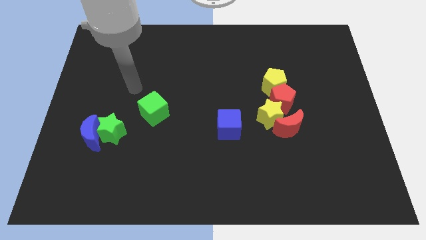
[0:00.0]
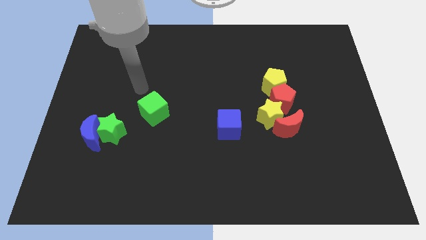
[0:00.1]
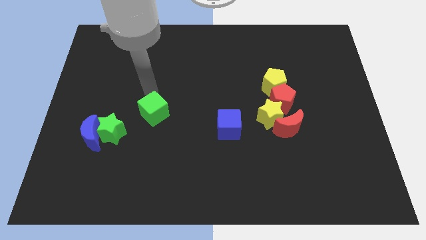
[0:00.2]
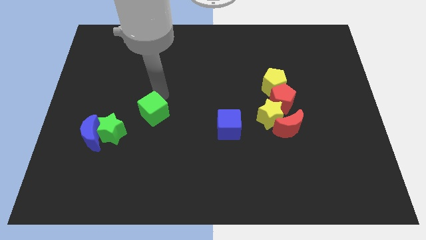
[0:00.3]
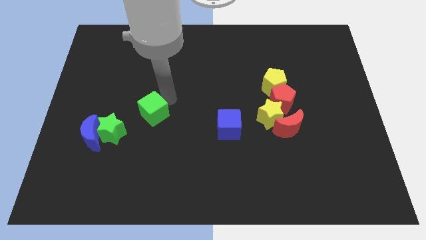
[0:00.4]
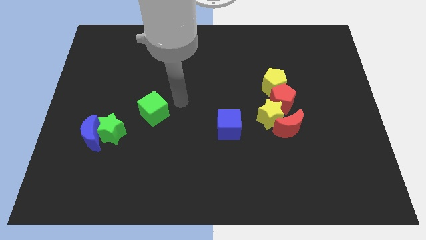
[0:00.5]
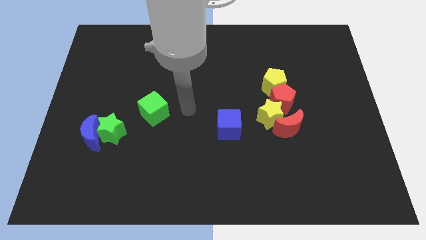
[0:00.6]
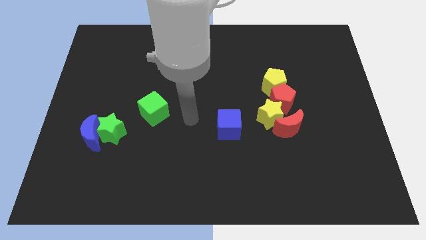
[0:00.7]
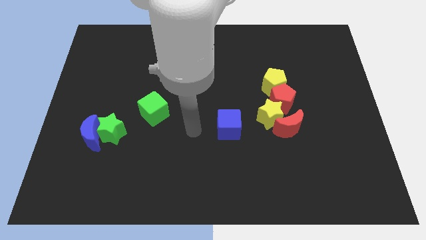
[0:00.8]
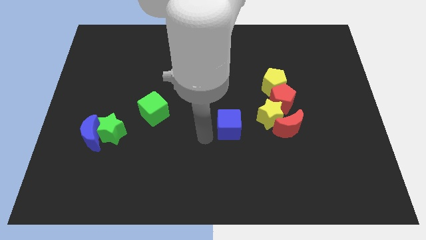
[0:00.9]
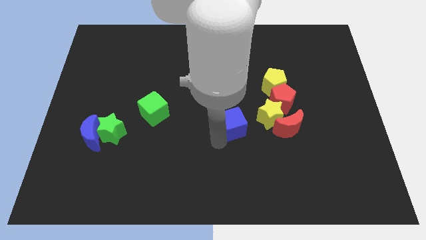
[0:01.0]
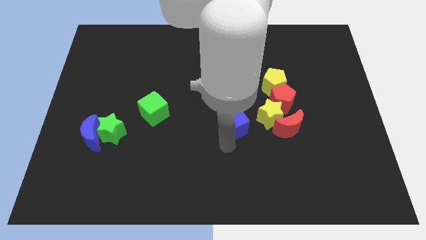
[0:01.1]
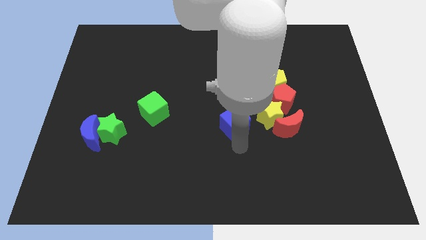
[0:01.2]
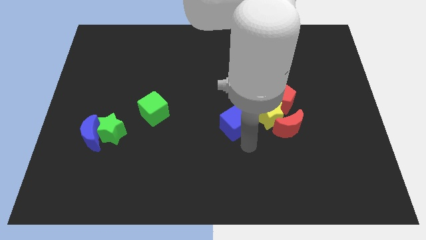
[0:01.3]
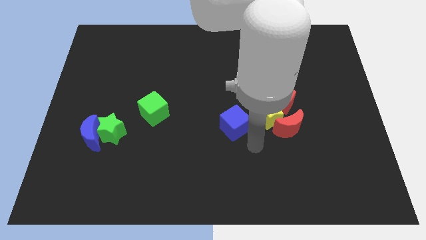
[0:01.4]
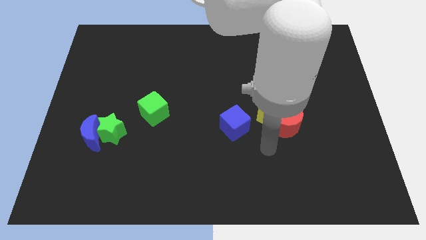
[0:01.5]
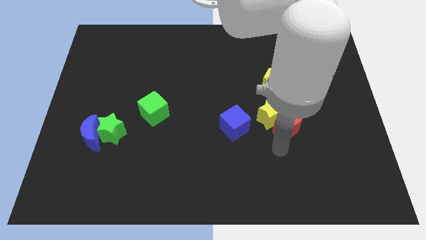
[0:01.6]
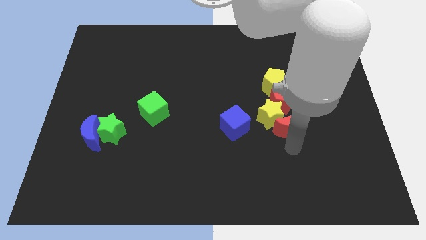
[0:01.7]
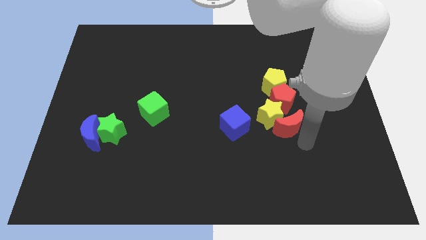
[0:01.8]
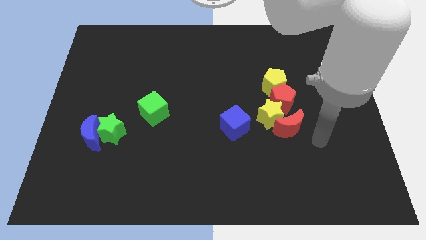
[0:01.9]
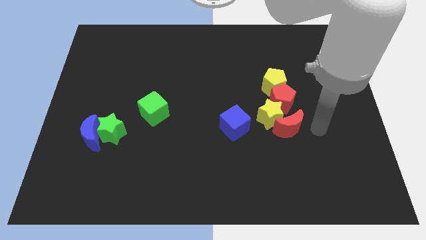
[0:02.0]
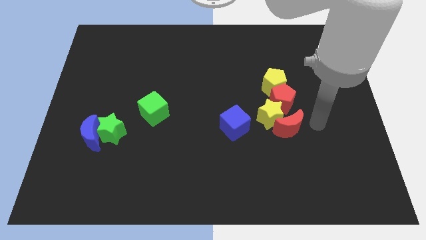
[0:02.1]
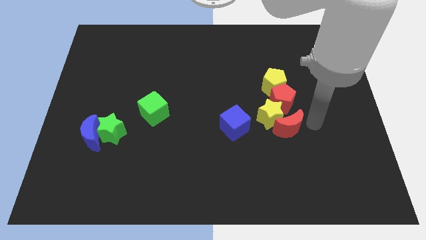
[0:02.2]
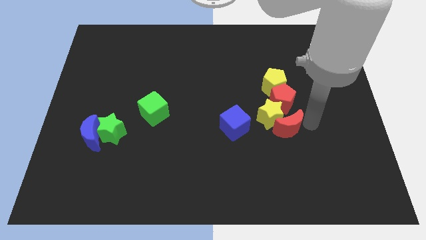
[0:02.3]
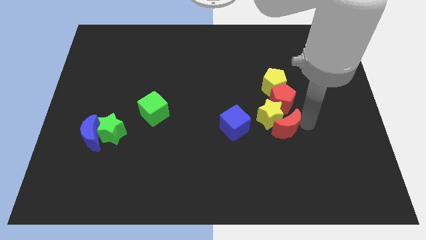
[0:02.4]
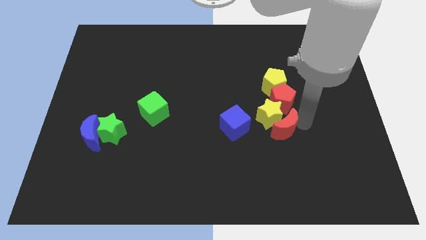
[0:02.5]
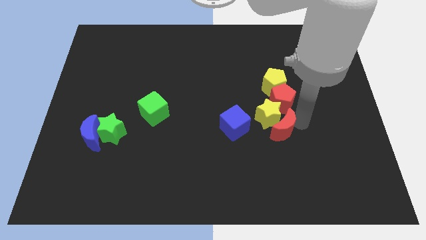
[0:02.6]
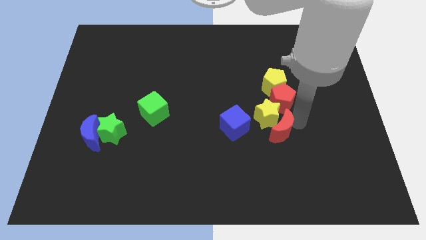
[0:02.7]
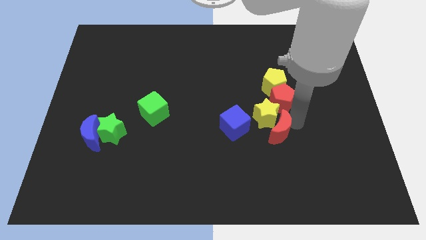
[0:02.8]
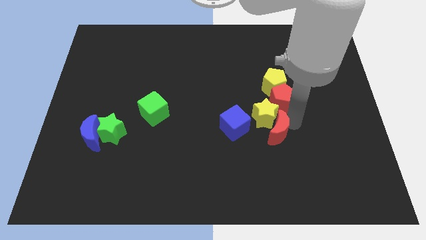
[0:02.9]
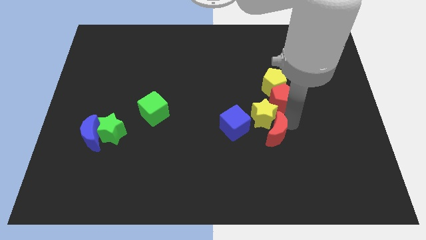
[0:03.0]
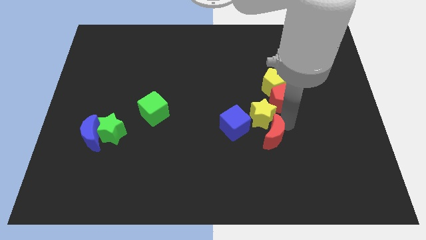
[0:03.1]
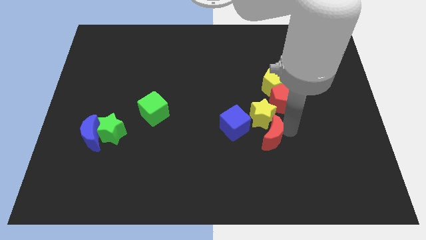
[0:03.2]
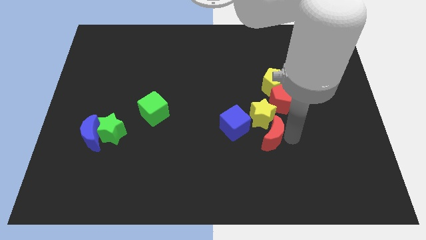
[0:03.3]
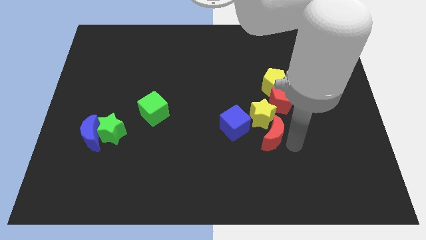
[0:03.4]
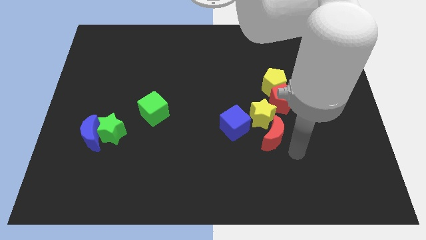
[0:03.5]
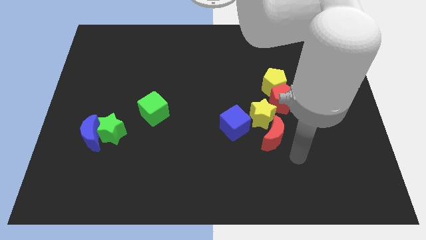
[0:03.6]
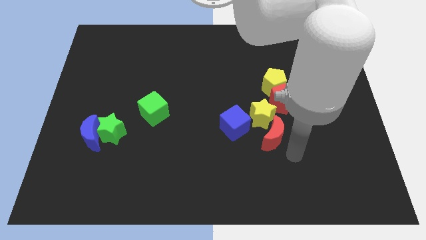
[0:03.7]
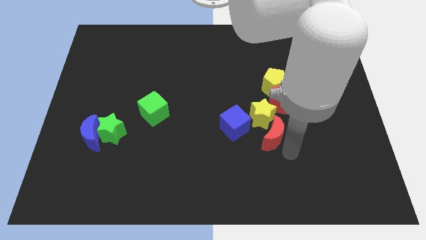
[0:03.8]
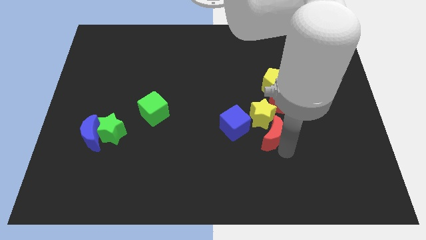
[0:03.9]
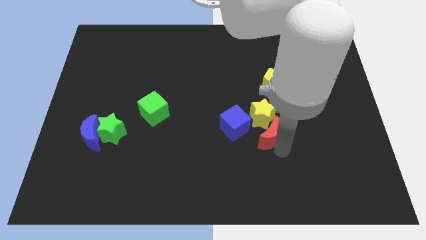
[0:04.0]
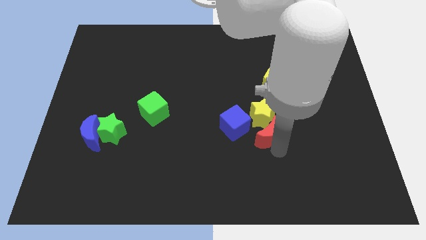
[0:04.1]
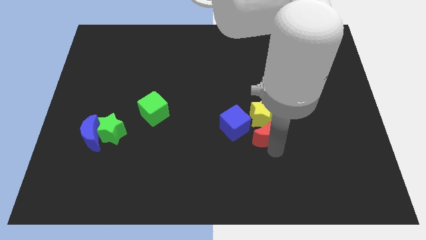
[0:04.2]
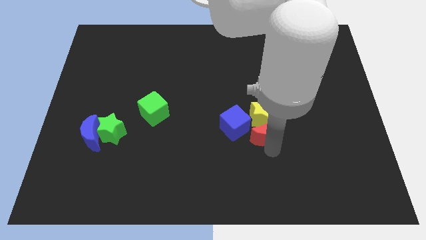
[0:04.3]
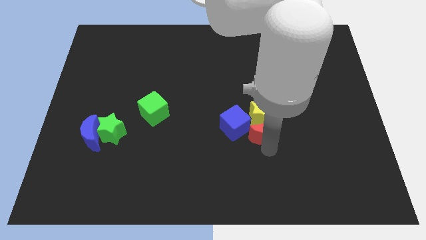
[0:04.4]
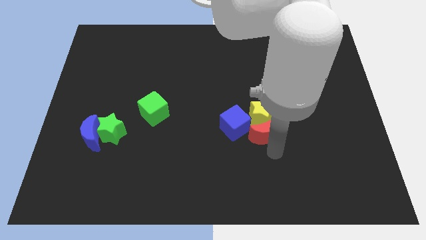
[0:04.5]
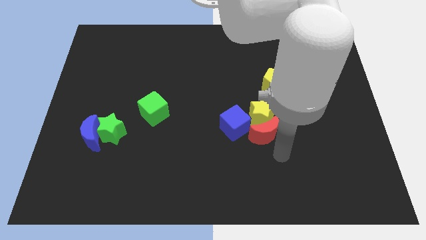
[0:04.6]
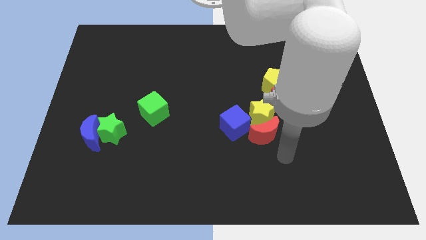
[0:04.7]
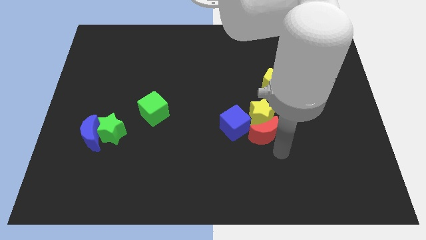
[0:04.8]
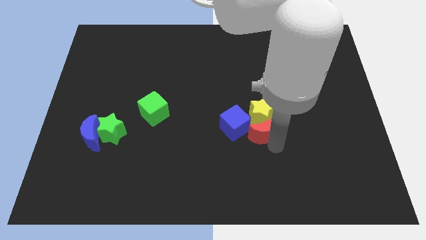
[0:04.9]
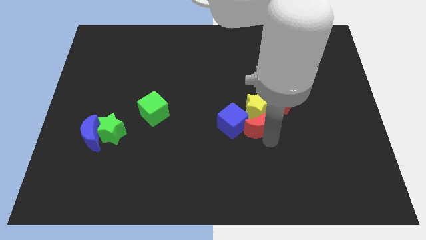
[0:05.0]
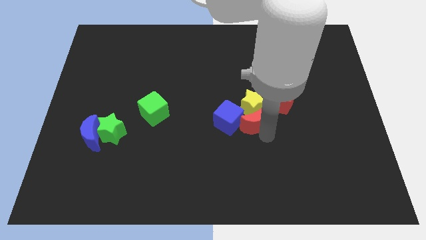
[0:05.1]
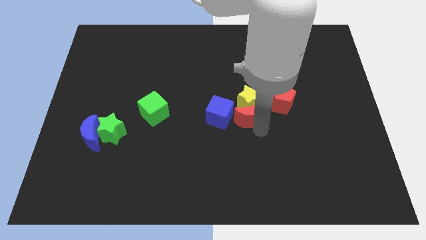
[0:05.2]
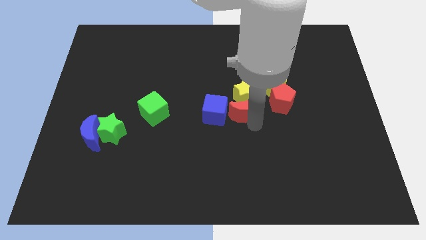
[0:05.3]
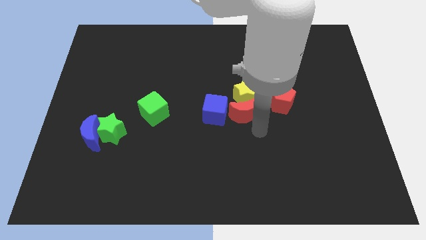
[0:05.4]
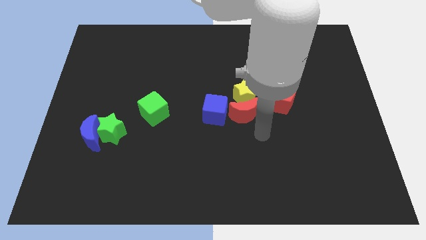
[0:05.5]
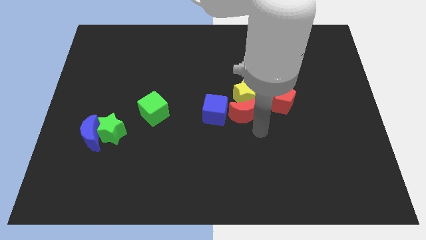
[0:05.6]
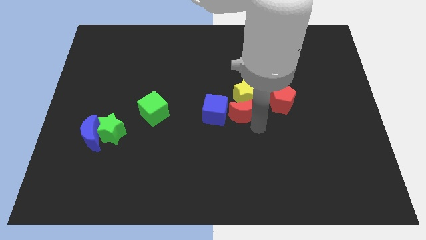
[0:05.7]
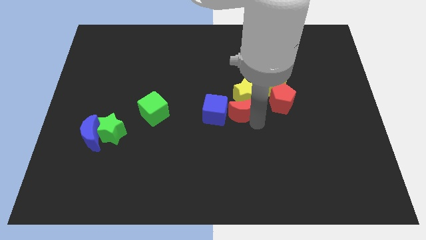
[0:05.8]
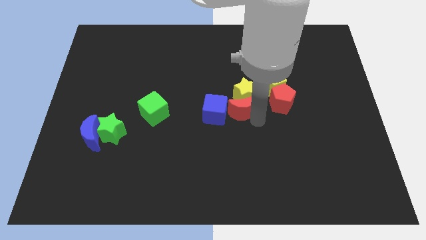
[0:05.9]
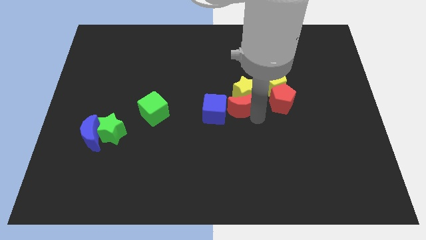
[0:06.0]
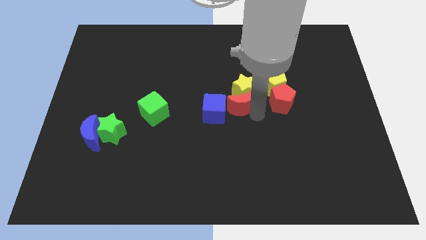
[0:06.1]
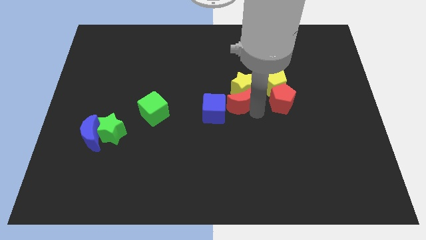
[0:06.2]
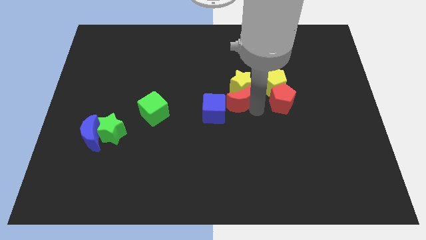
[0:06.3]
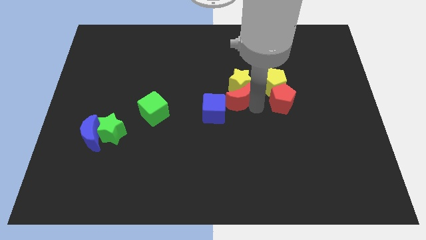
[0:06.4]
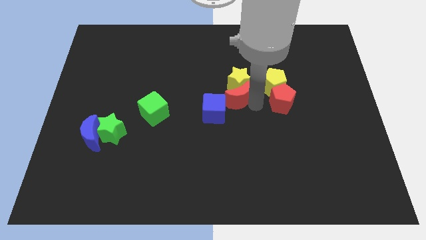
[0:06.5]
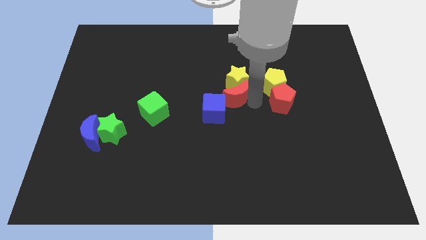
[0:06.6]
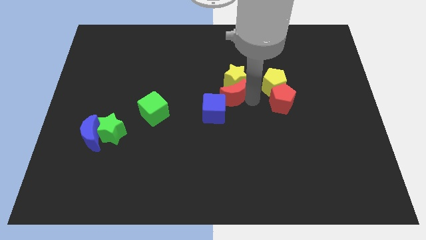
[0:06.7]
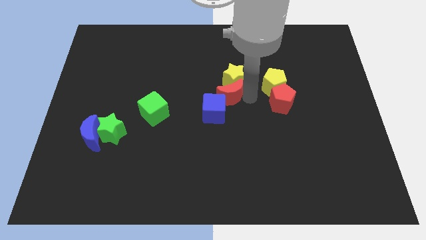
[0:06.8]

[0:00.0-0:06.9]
slide the red moon to the top side of the blue cube

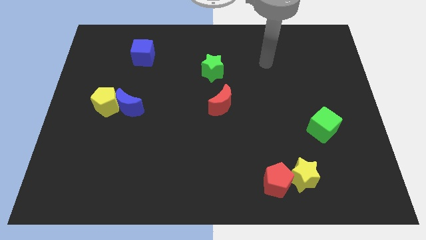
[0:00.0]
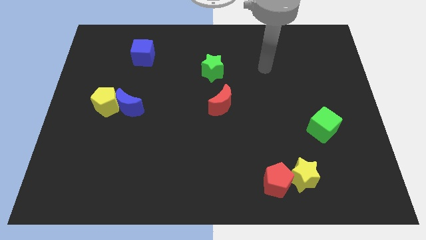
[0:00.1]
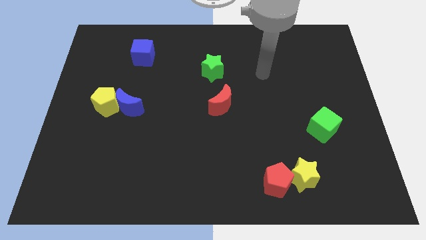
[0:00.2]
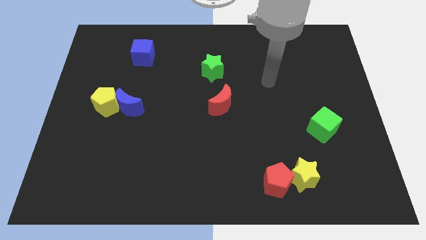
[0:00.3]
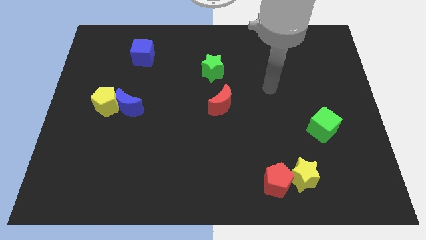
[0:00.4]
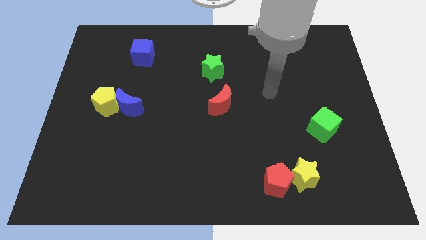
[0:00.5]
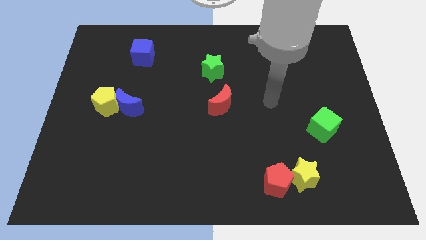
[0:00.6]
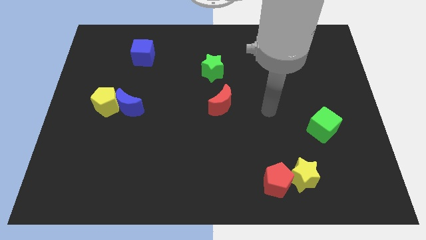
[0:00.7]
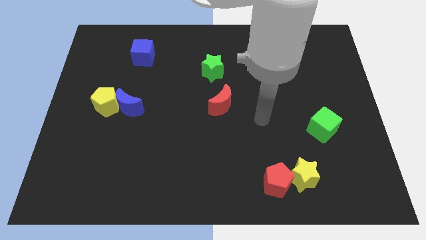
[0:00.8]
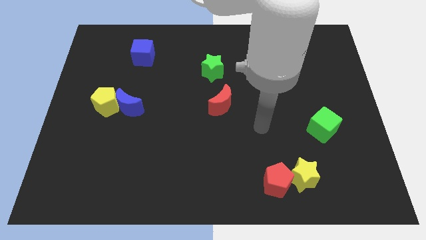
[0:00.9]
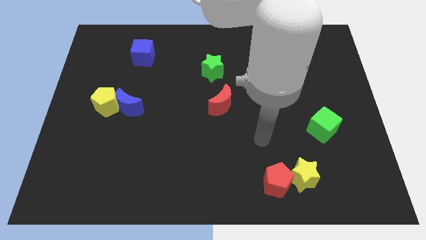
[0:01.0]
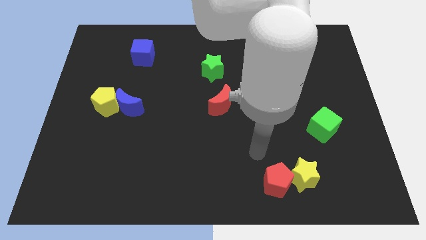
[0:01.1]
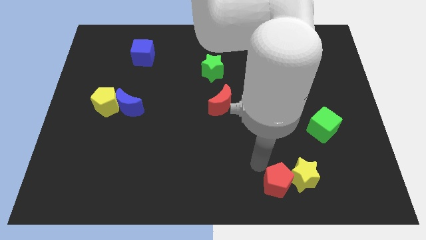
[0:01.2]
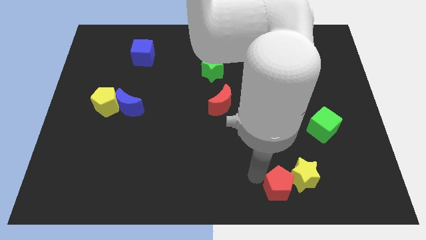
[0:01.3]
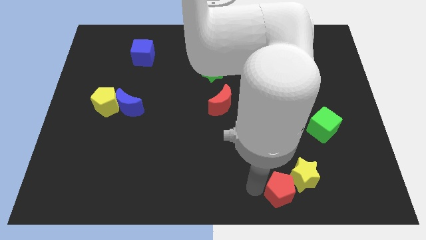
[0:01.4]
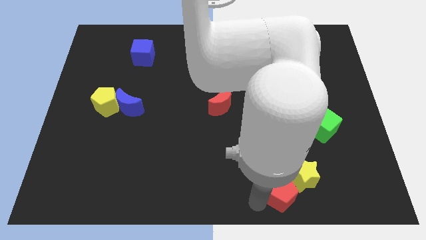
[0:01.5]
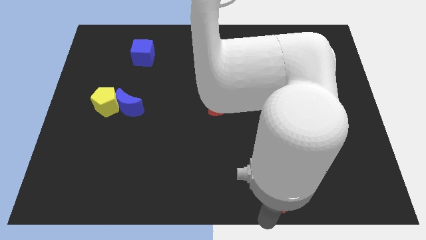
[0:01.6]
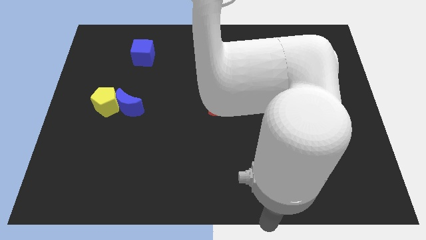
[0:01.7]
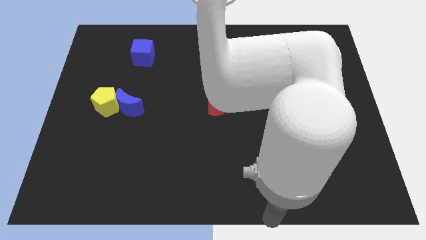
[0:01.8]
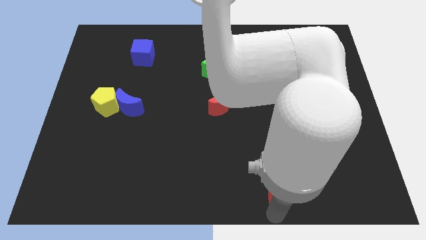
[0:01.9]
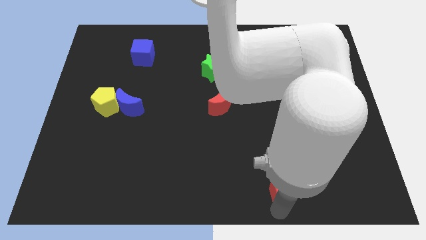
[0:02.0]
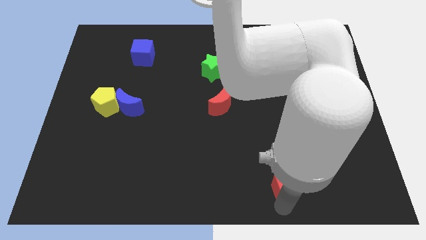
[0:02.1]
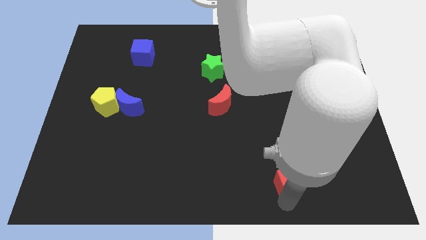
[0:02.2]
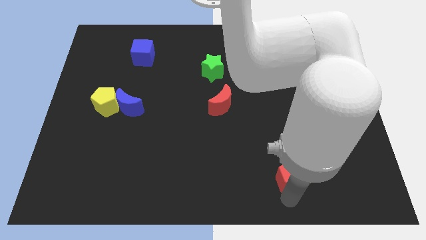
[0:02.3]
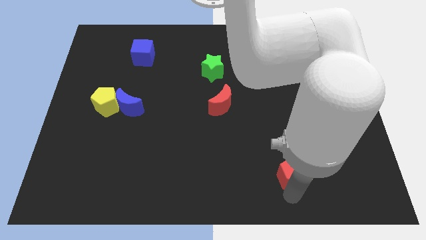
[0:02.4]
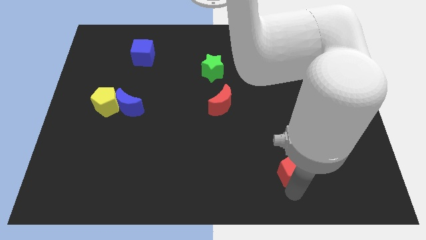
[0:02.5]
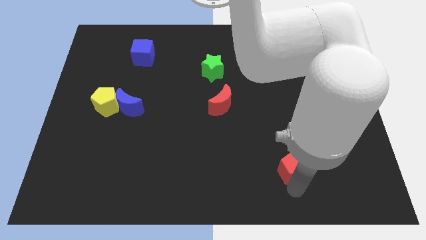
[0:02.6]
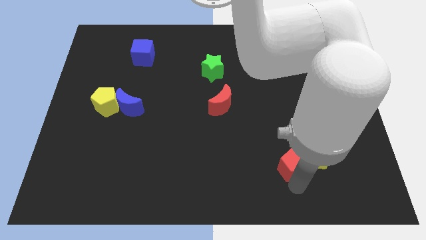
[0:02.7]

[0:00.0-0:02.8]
push the red pentagon diagonally down and to the left of the green cube
